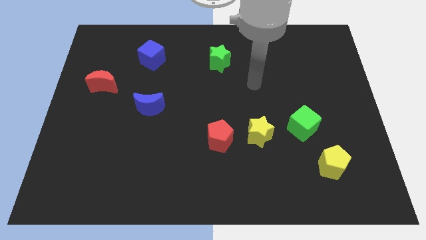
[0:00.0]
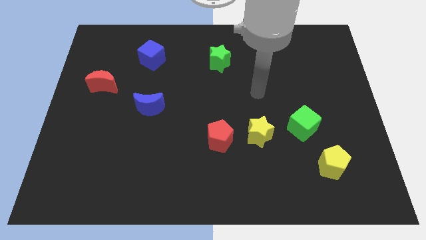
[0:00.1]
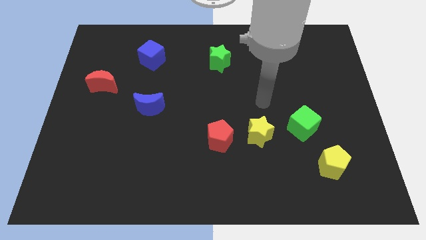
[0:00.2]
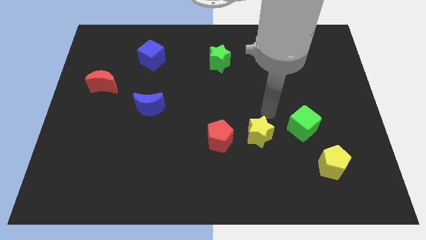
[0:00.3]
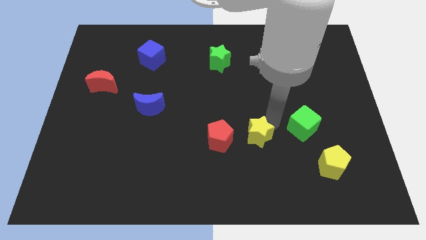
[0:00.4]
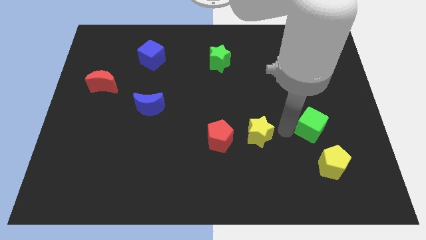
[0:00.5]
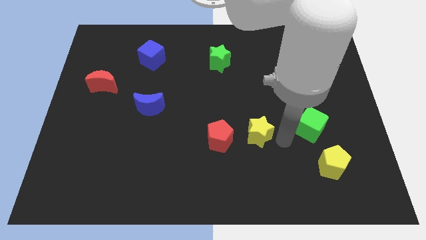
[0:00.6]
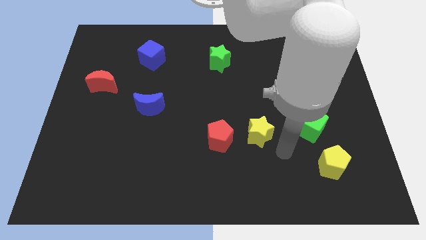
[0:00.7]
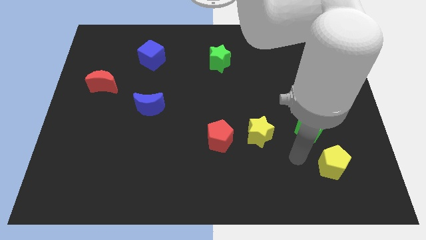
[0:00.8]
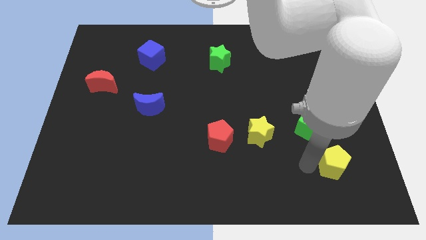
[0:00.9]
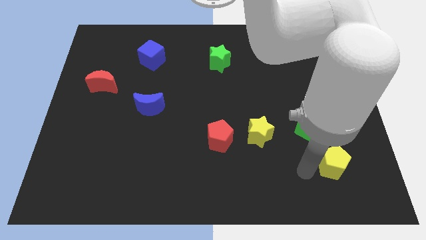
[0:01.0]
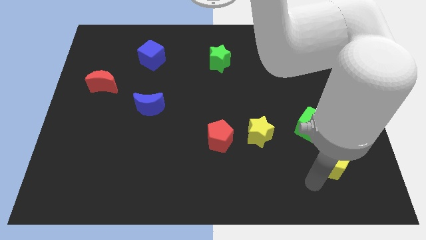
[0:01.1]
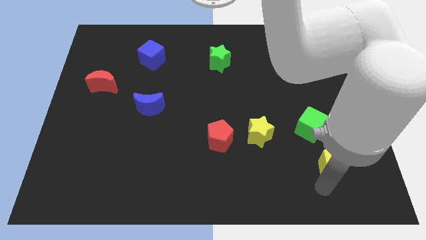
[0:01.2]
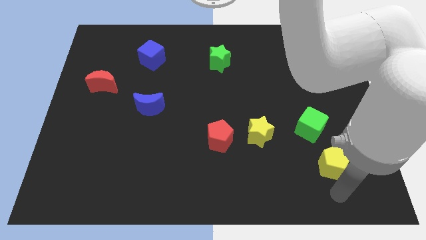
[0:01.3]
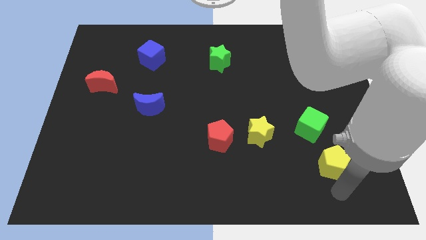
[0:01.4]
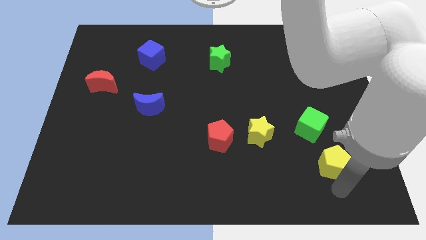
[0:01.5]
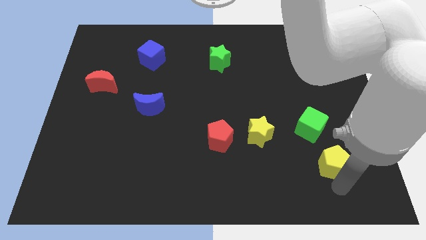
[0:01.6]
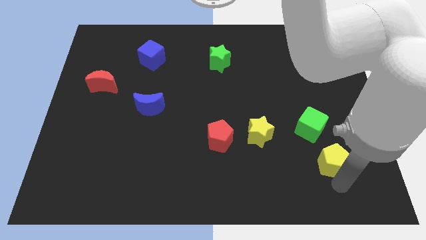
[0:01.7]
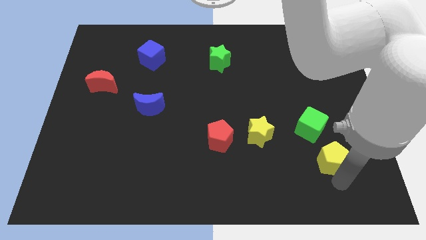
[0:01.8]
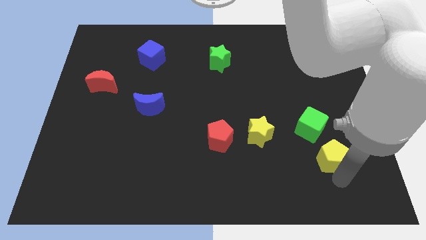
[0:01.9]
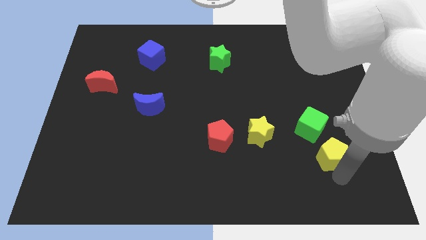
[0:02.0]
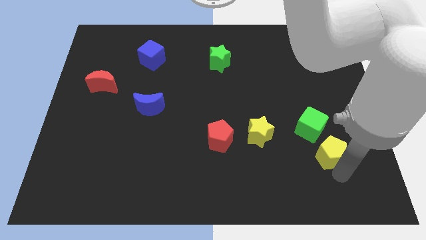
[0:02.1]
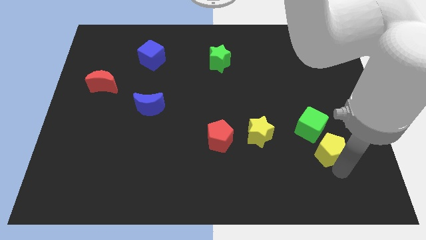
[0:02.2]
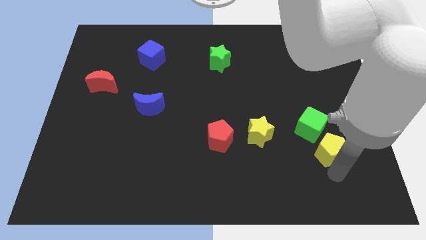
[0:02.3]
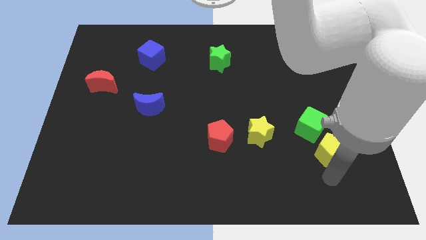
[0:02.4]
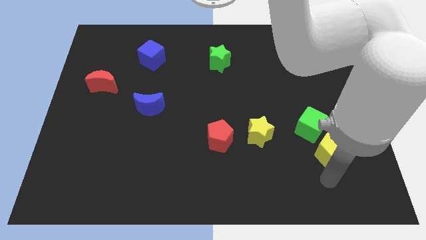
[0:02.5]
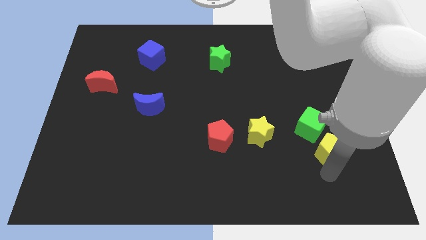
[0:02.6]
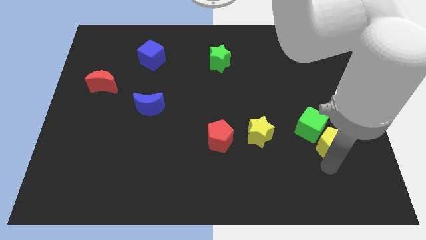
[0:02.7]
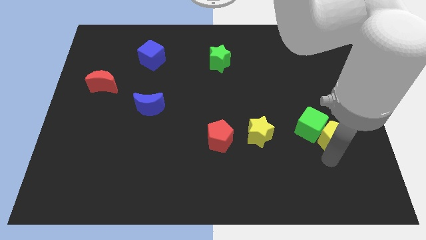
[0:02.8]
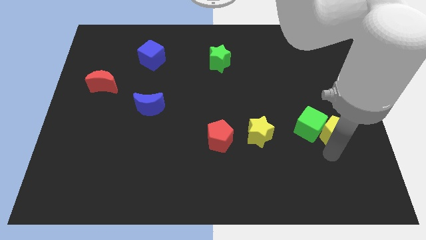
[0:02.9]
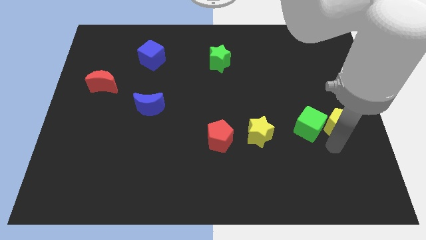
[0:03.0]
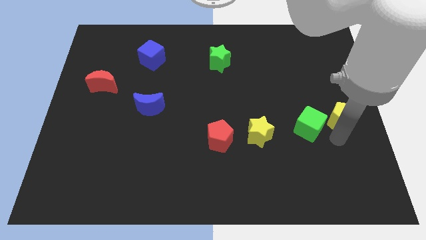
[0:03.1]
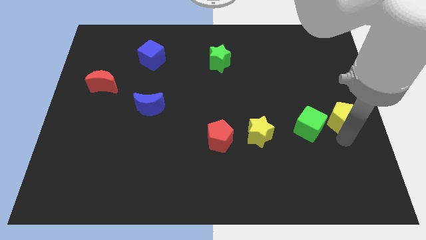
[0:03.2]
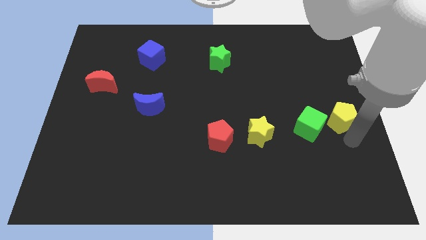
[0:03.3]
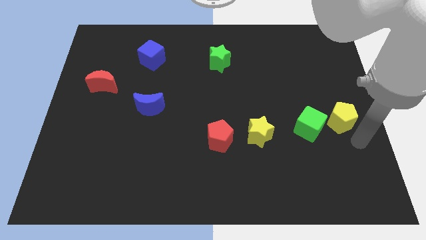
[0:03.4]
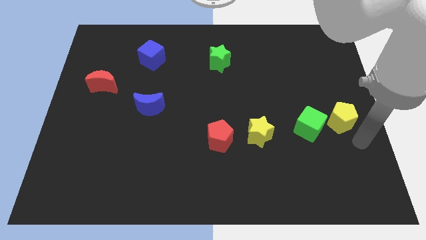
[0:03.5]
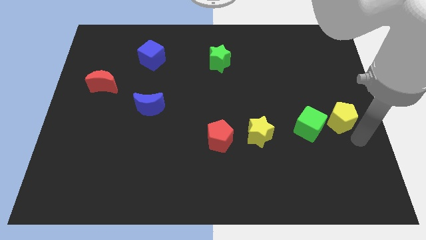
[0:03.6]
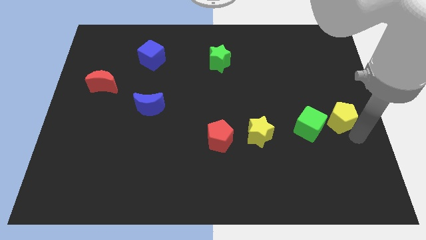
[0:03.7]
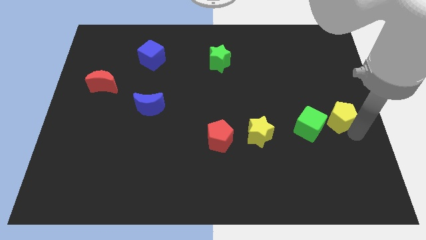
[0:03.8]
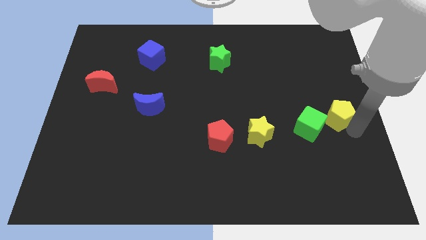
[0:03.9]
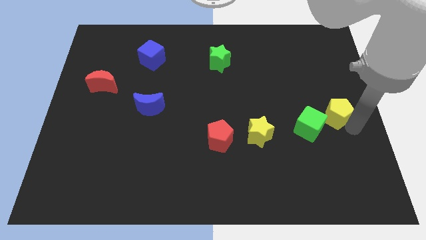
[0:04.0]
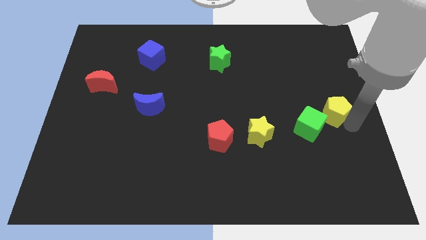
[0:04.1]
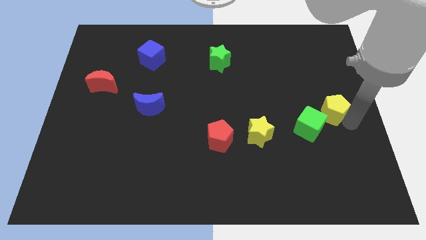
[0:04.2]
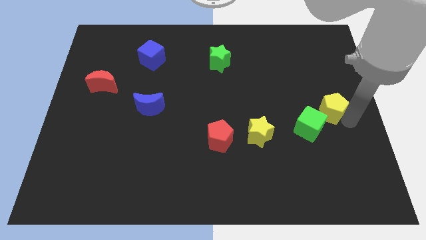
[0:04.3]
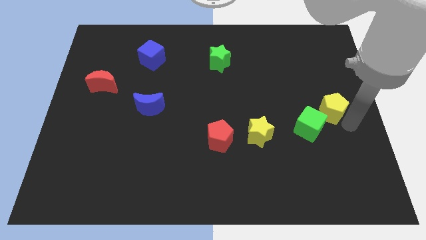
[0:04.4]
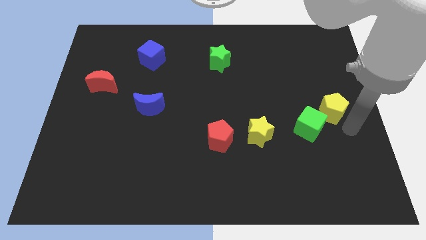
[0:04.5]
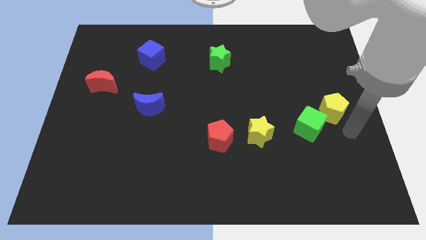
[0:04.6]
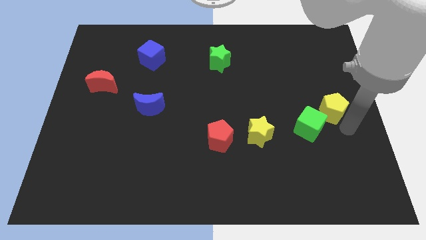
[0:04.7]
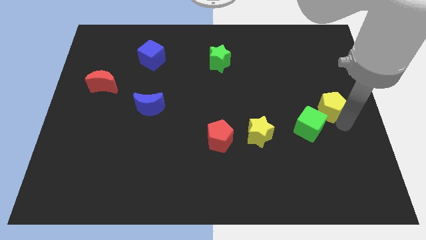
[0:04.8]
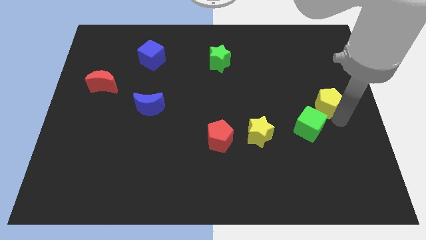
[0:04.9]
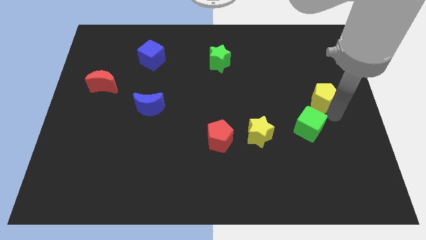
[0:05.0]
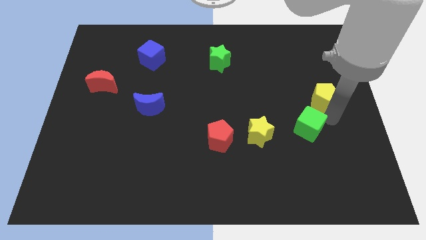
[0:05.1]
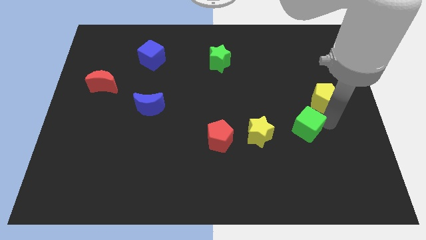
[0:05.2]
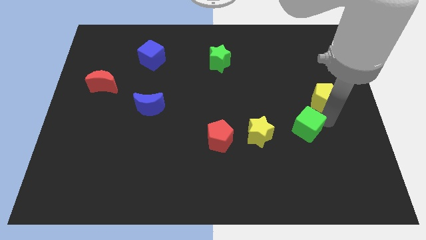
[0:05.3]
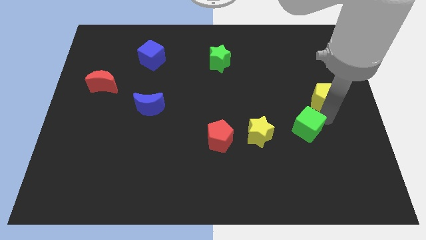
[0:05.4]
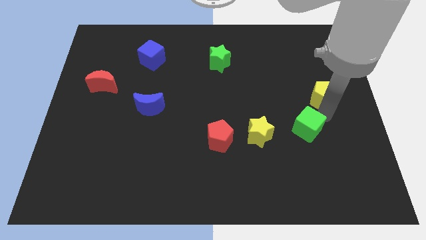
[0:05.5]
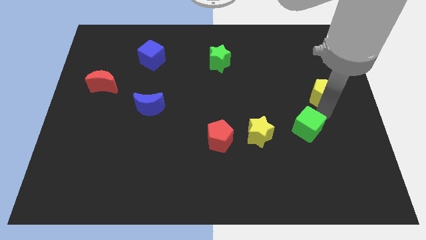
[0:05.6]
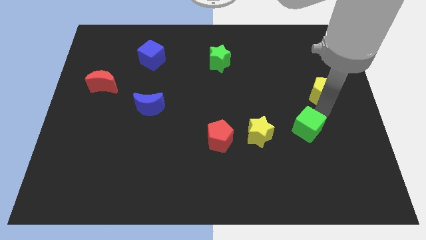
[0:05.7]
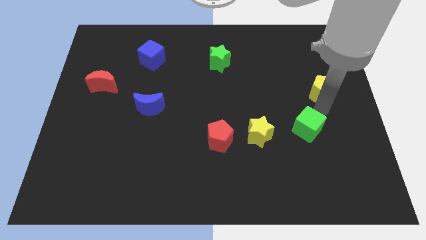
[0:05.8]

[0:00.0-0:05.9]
move the yellow pentagon upwards

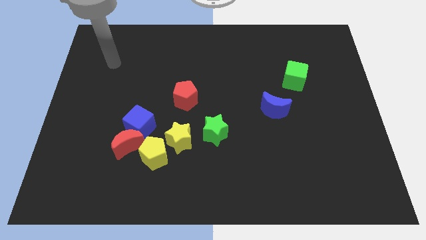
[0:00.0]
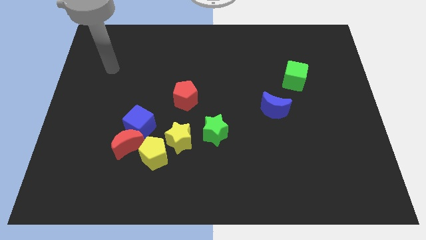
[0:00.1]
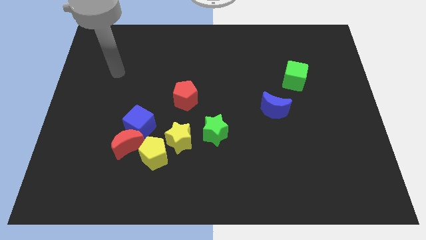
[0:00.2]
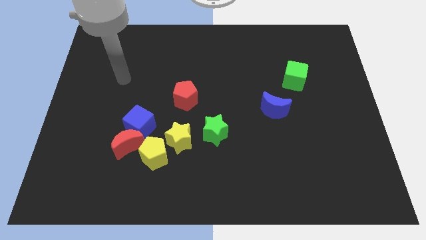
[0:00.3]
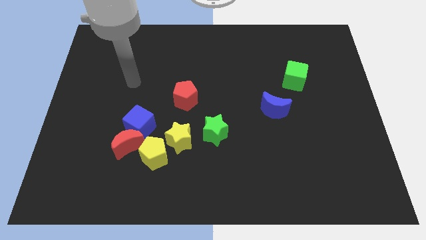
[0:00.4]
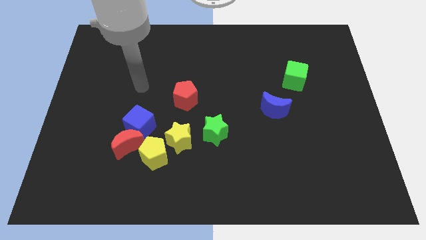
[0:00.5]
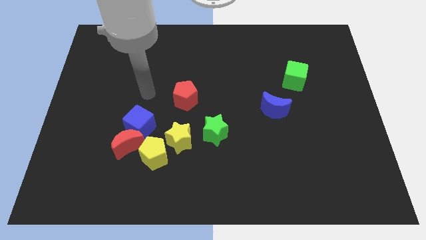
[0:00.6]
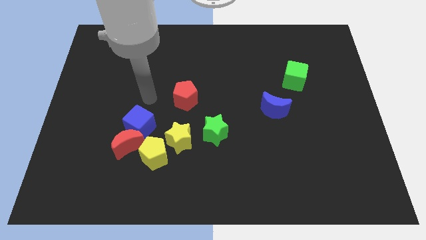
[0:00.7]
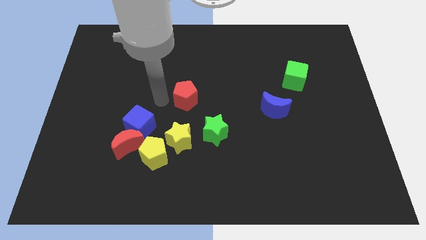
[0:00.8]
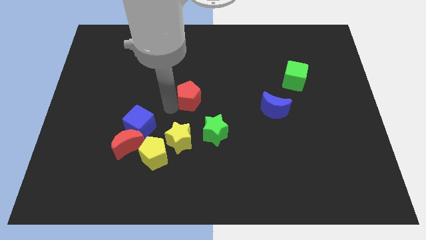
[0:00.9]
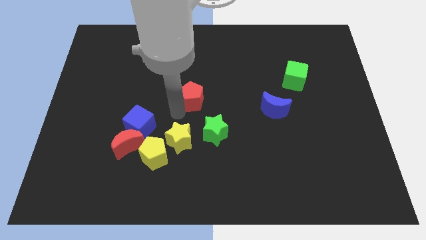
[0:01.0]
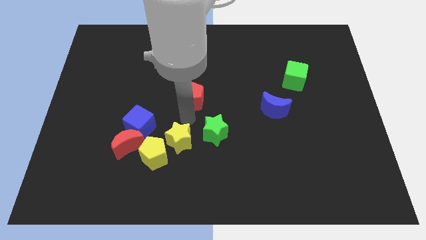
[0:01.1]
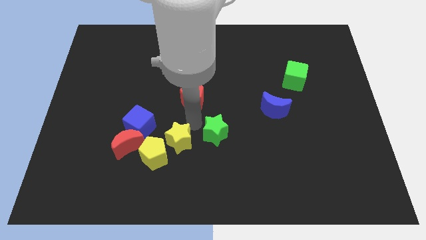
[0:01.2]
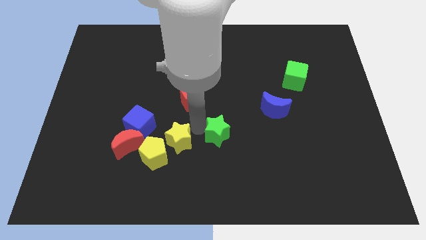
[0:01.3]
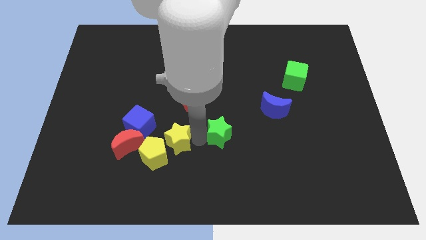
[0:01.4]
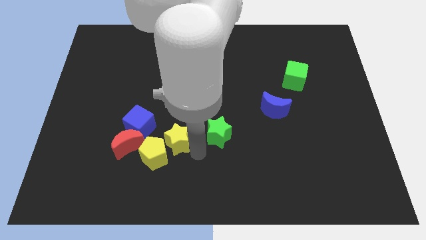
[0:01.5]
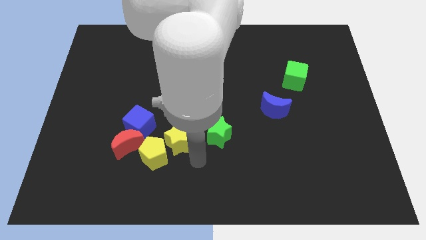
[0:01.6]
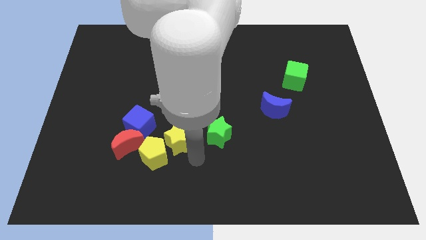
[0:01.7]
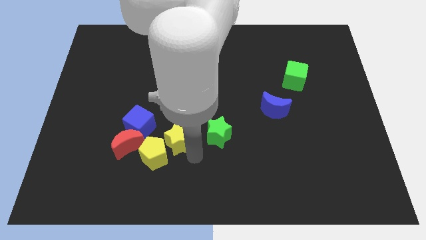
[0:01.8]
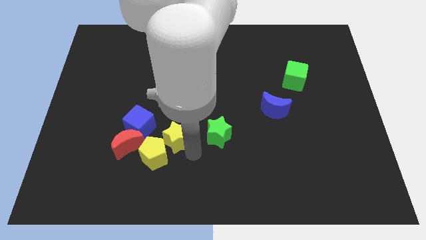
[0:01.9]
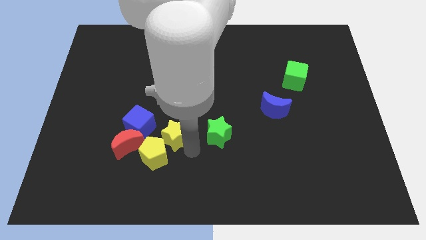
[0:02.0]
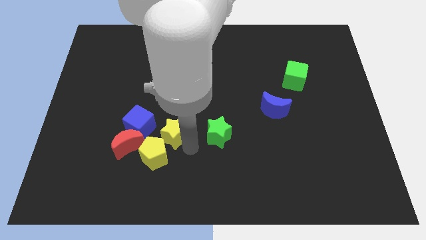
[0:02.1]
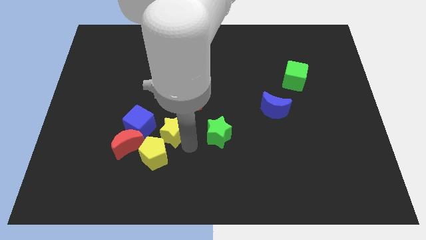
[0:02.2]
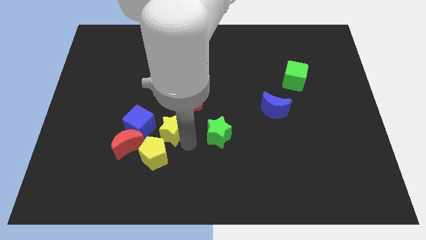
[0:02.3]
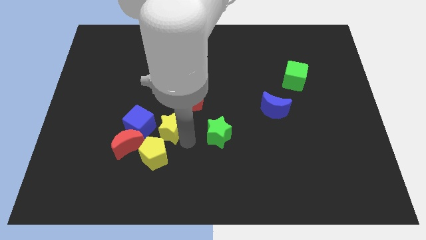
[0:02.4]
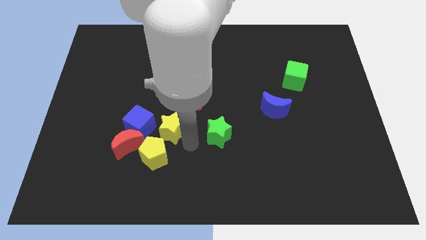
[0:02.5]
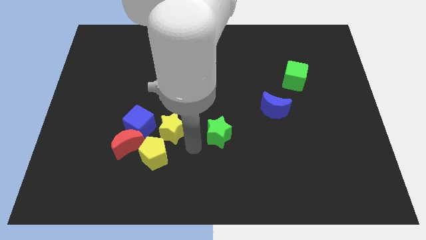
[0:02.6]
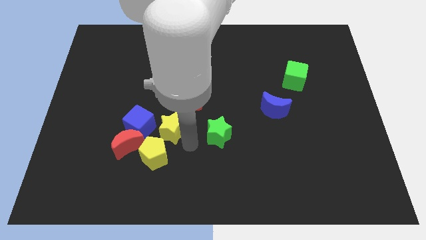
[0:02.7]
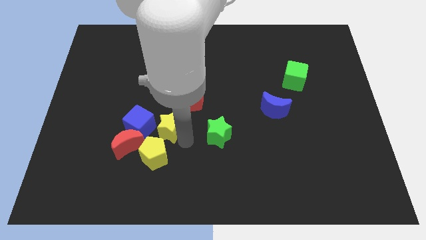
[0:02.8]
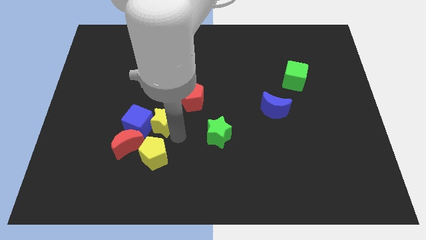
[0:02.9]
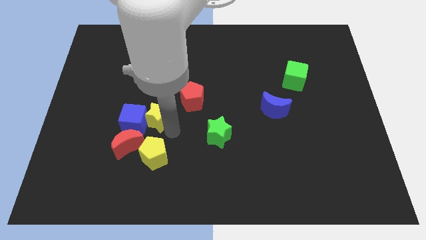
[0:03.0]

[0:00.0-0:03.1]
slide the yellow star diagonally up and to the left slightly
